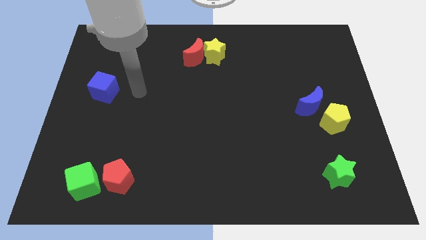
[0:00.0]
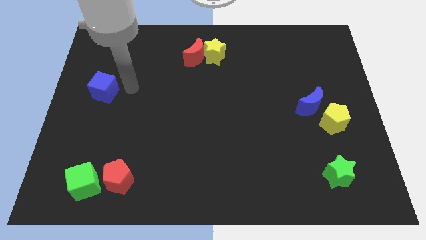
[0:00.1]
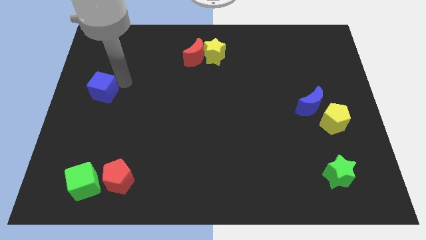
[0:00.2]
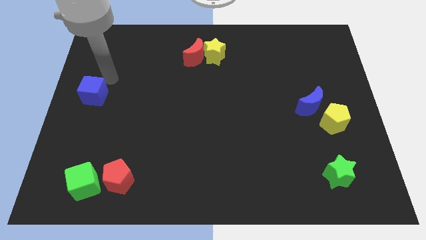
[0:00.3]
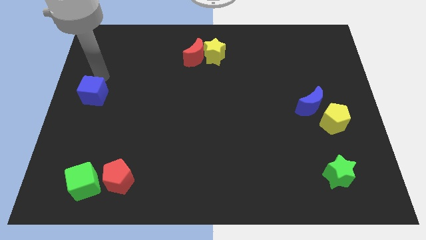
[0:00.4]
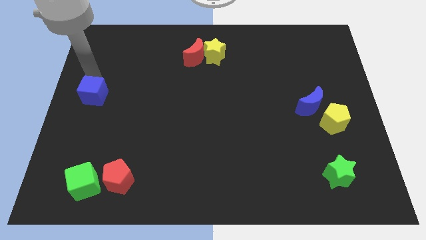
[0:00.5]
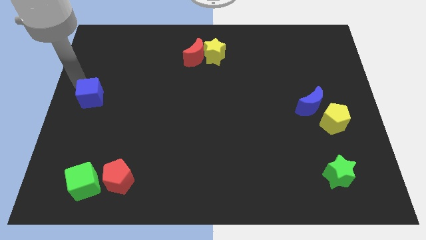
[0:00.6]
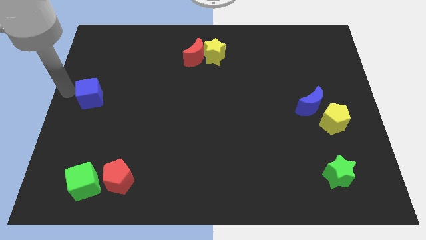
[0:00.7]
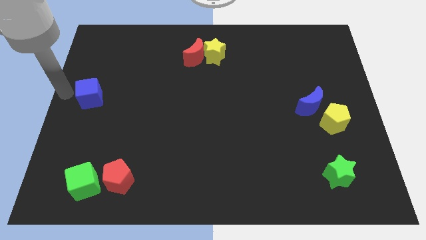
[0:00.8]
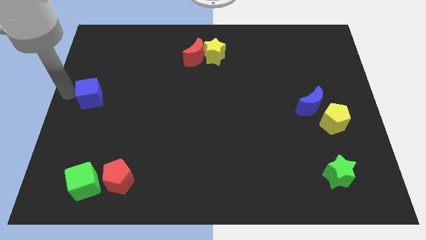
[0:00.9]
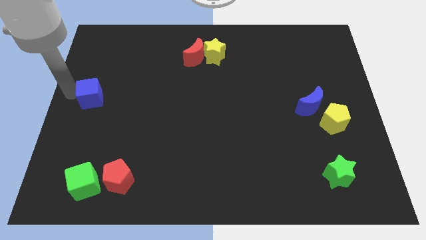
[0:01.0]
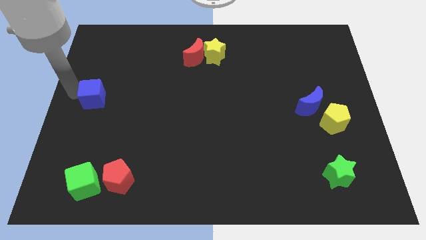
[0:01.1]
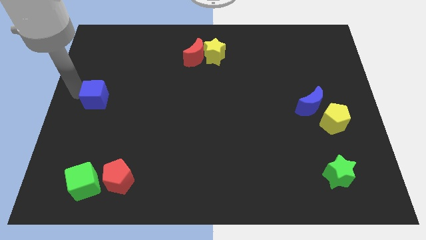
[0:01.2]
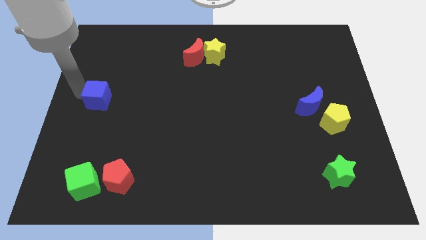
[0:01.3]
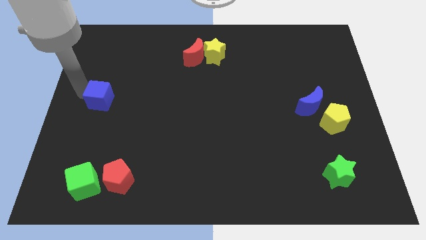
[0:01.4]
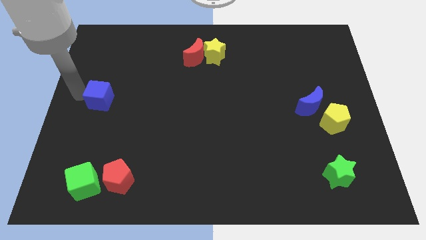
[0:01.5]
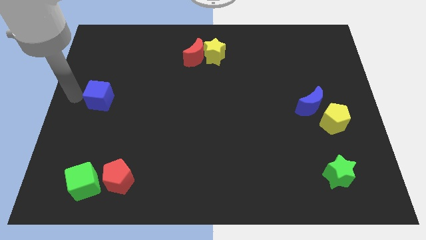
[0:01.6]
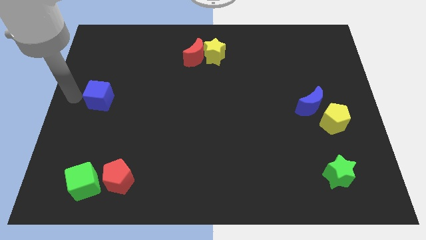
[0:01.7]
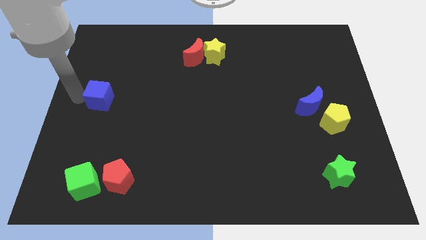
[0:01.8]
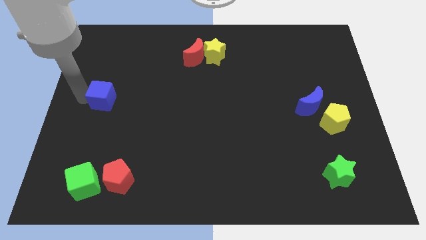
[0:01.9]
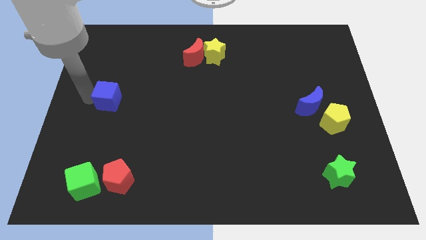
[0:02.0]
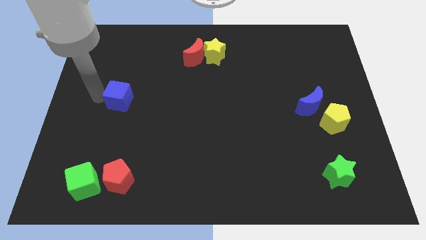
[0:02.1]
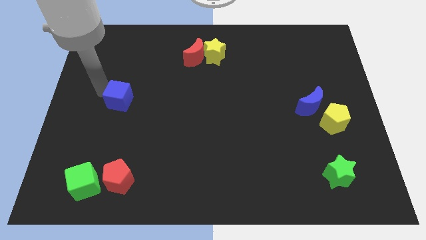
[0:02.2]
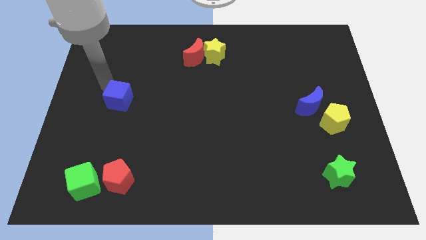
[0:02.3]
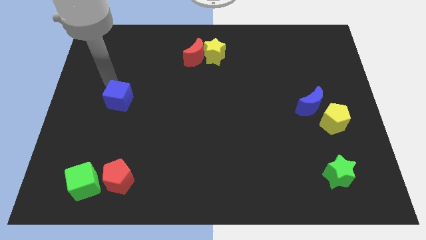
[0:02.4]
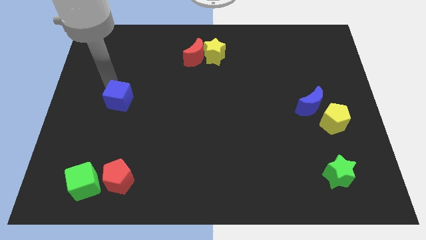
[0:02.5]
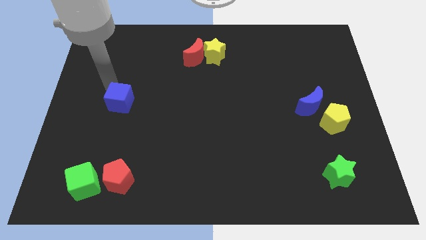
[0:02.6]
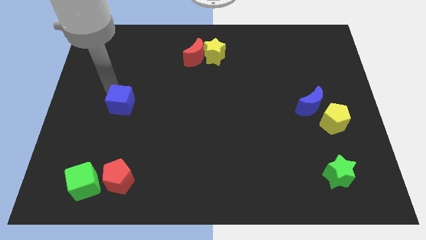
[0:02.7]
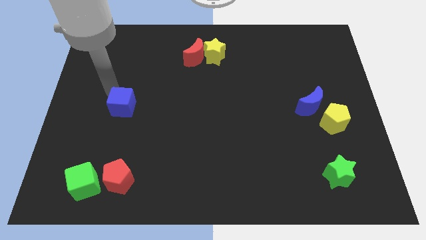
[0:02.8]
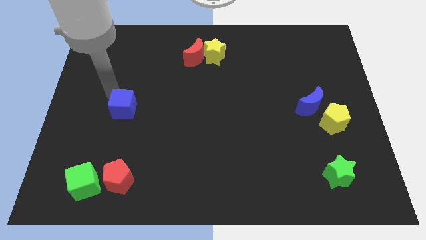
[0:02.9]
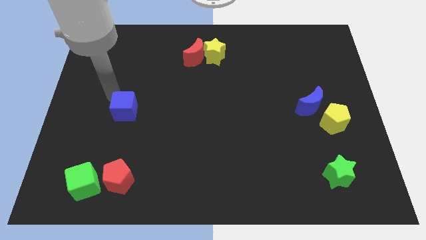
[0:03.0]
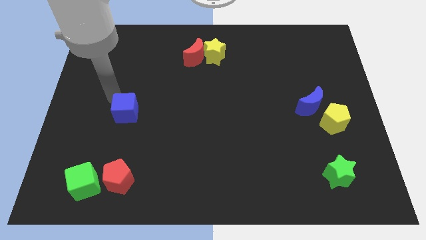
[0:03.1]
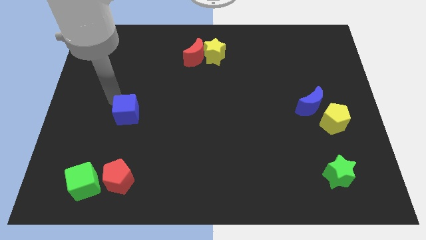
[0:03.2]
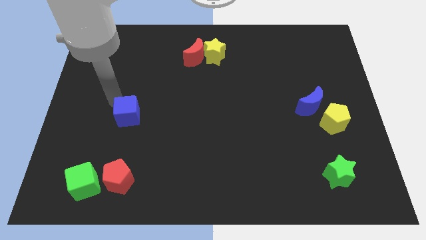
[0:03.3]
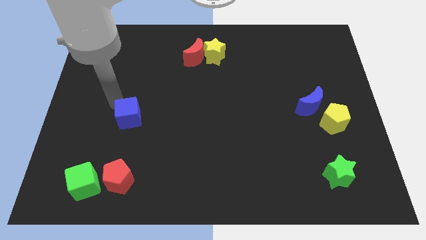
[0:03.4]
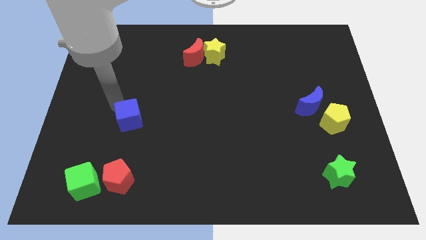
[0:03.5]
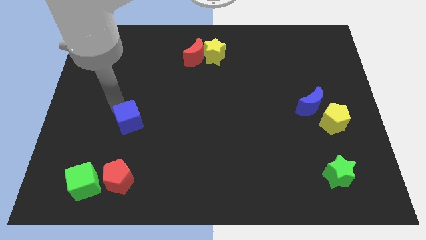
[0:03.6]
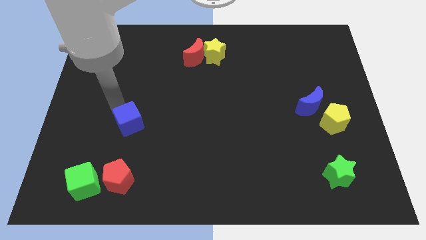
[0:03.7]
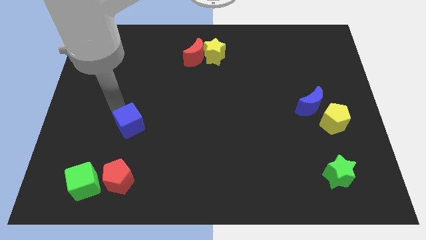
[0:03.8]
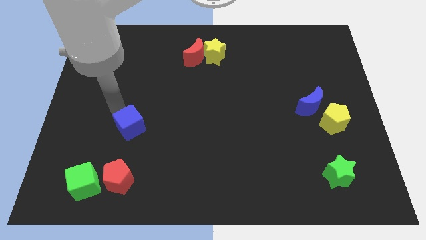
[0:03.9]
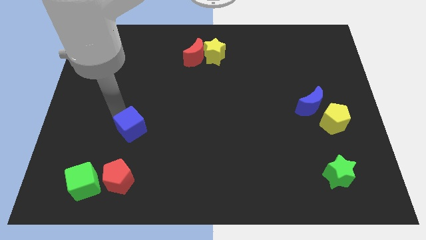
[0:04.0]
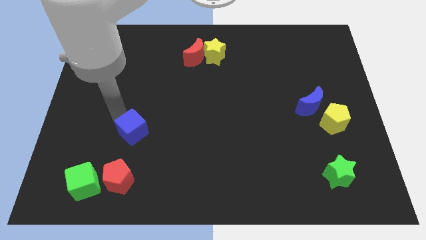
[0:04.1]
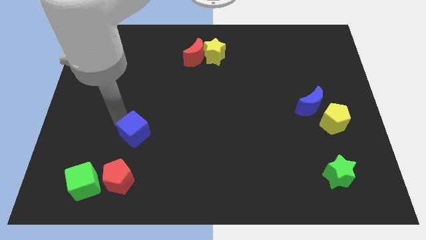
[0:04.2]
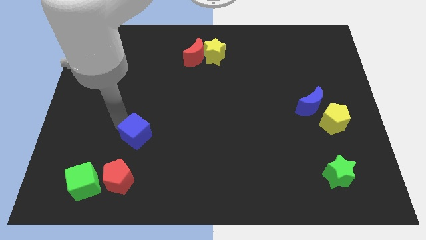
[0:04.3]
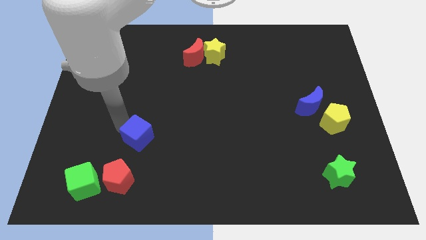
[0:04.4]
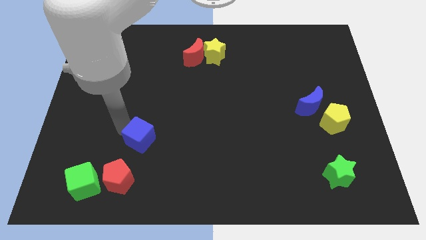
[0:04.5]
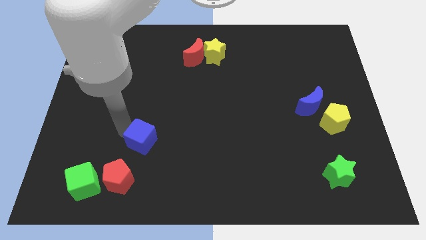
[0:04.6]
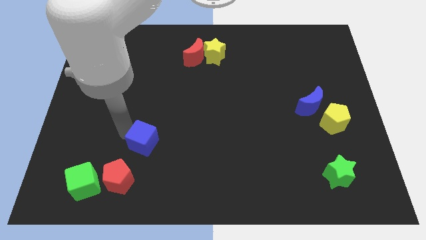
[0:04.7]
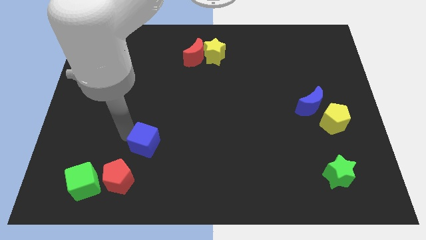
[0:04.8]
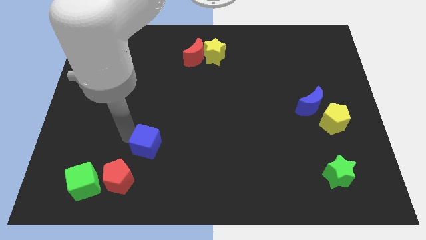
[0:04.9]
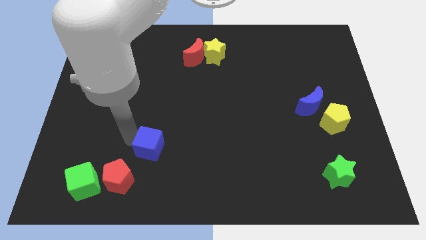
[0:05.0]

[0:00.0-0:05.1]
slide the blue cube down and to the right

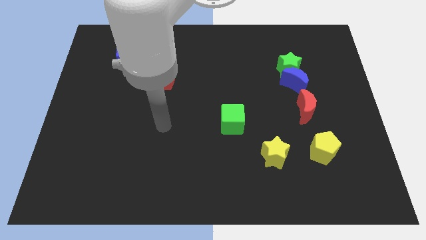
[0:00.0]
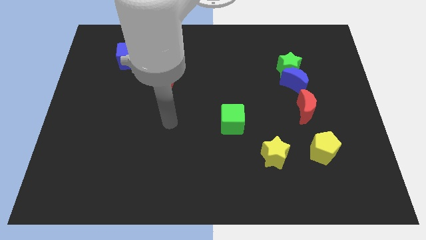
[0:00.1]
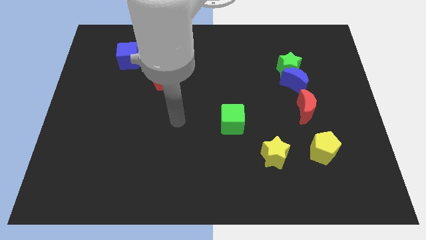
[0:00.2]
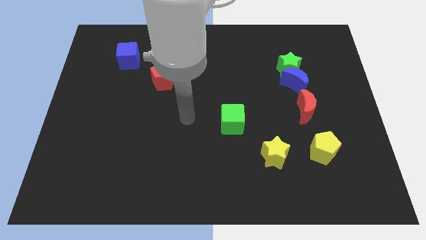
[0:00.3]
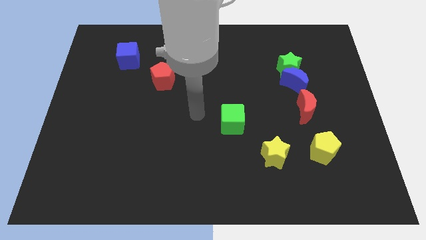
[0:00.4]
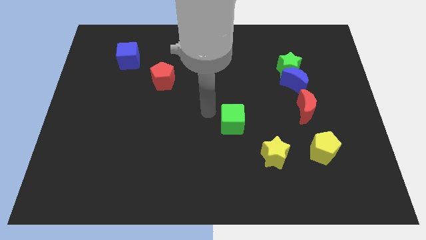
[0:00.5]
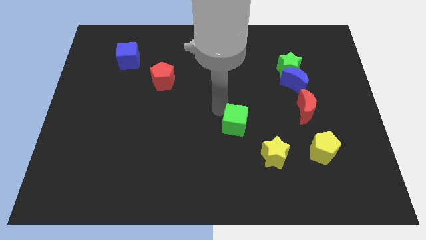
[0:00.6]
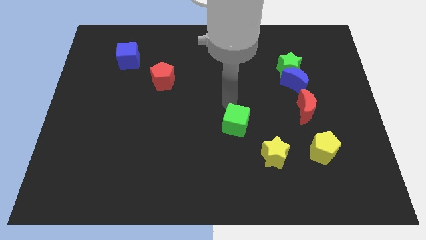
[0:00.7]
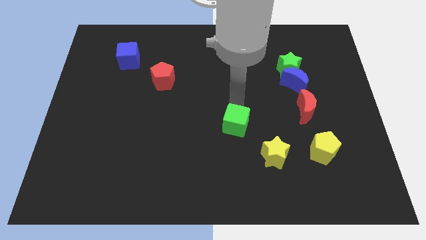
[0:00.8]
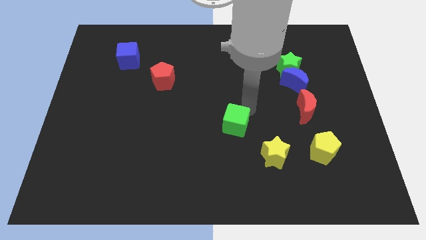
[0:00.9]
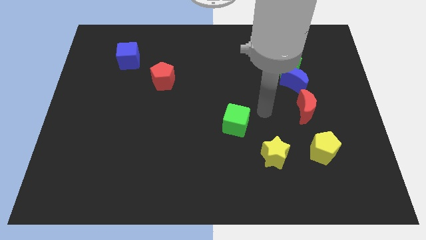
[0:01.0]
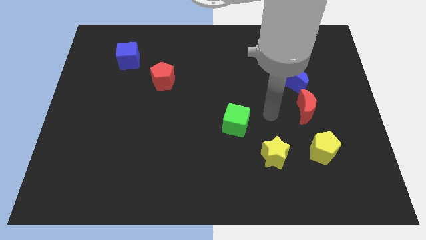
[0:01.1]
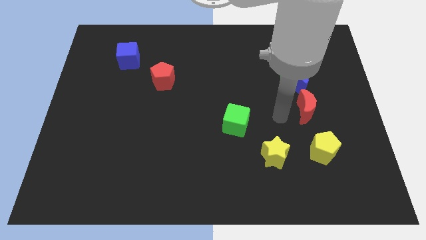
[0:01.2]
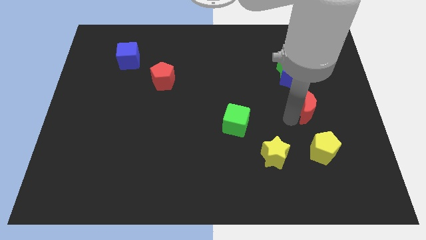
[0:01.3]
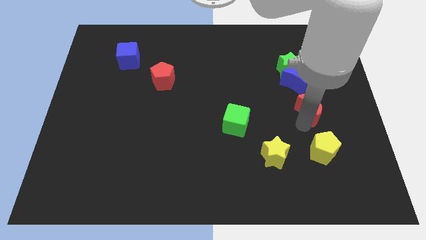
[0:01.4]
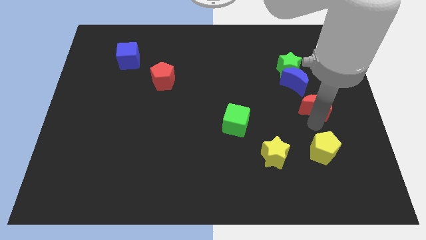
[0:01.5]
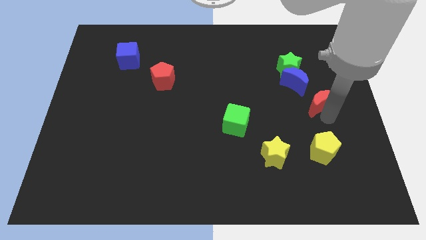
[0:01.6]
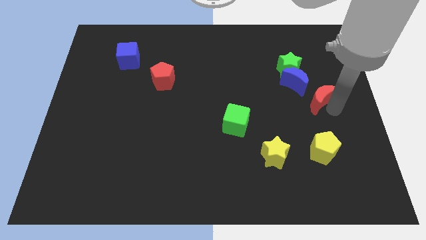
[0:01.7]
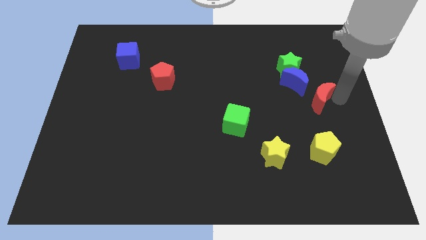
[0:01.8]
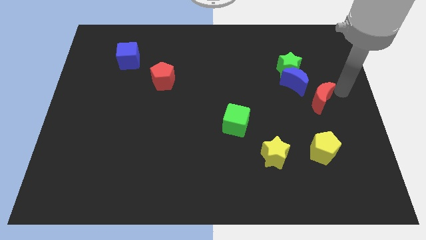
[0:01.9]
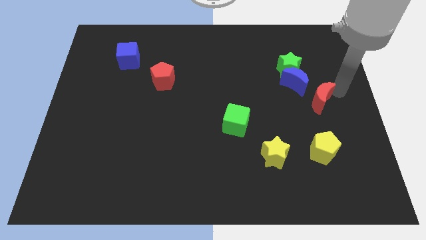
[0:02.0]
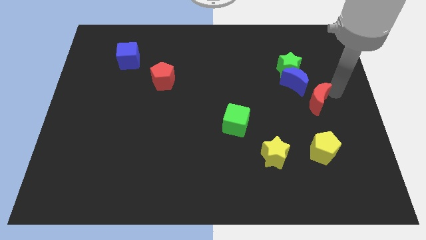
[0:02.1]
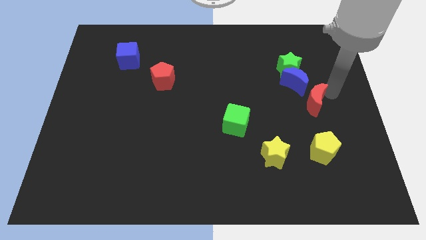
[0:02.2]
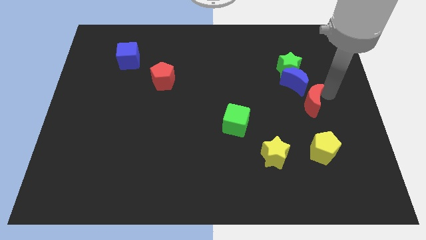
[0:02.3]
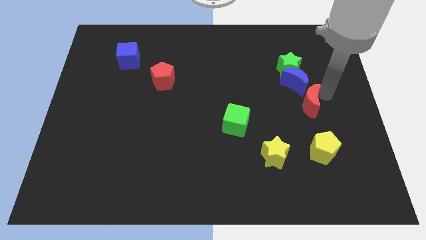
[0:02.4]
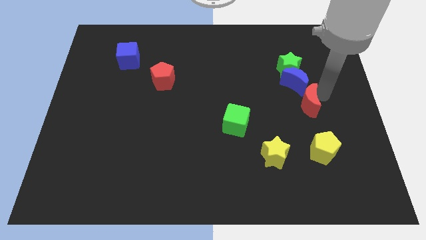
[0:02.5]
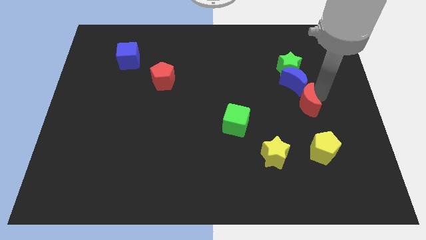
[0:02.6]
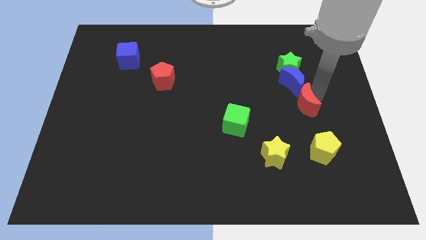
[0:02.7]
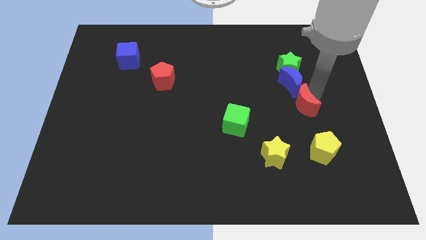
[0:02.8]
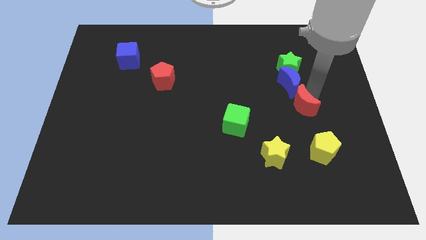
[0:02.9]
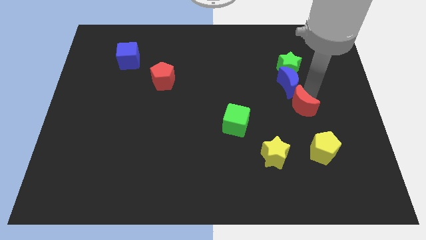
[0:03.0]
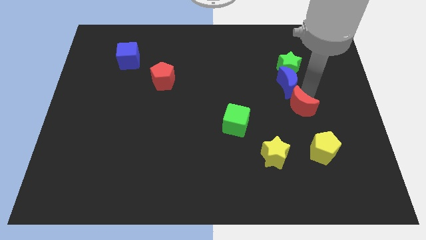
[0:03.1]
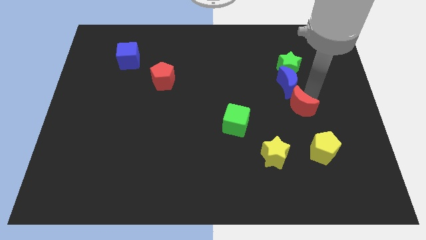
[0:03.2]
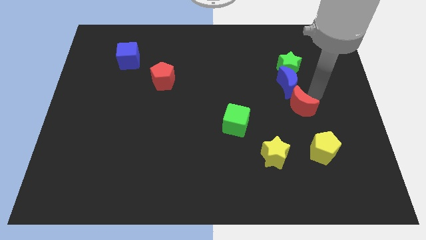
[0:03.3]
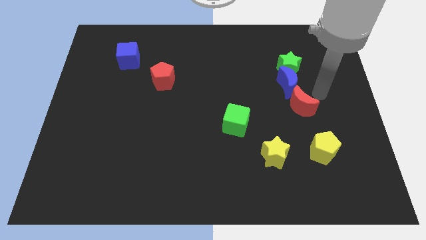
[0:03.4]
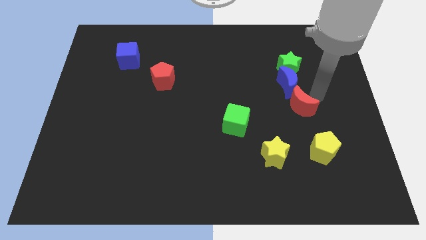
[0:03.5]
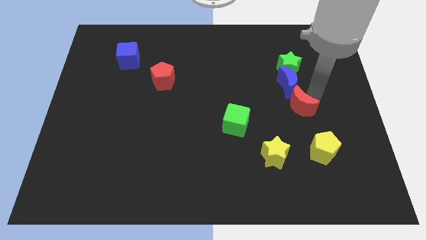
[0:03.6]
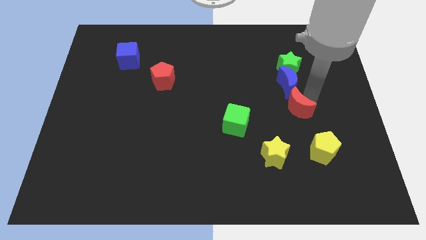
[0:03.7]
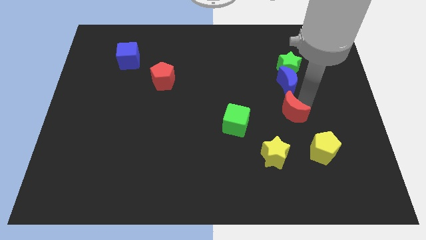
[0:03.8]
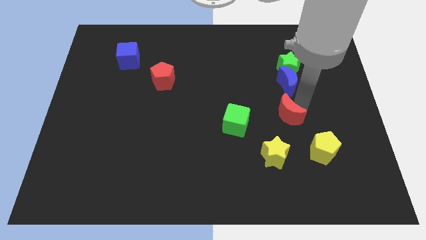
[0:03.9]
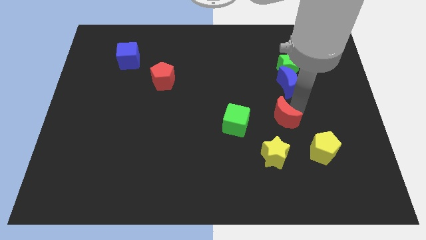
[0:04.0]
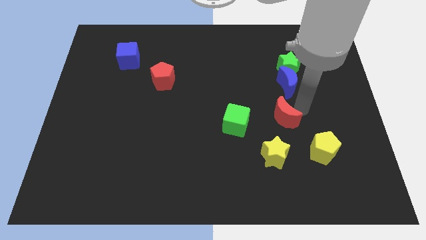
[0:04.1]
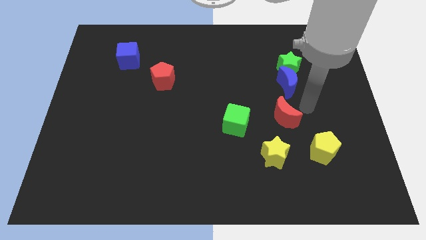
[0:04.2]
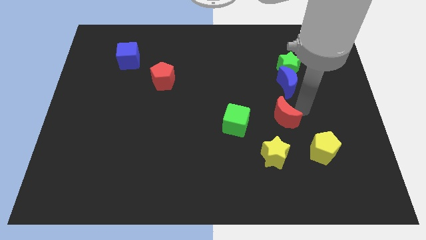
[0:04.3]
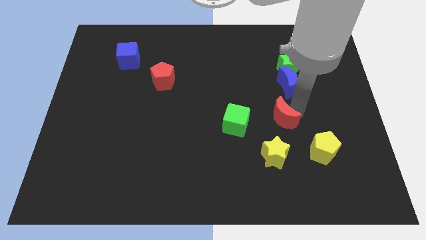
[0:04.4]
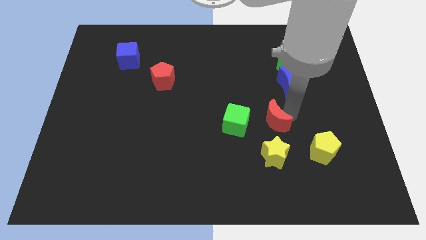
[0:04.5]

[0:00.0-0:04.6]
slide the red moon somewhat downwards and then to the left
